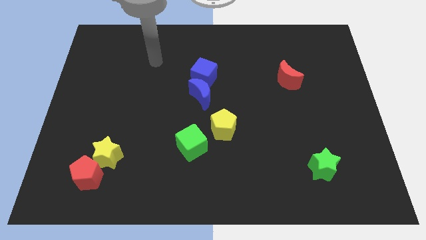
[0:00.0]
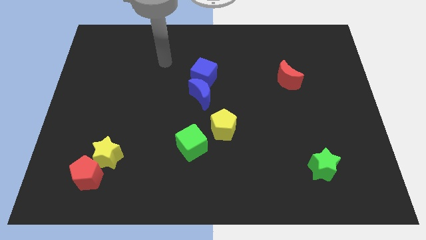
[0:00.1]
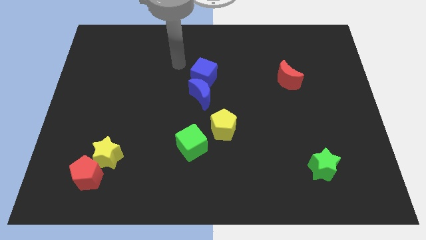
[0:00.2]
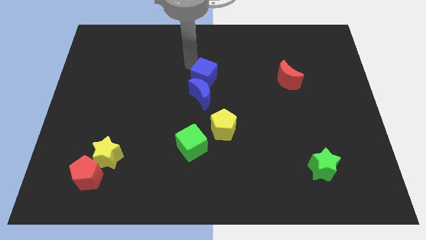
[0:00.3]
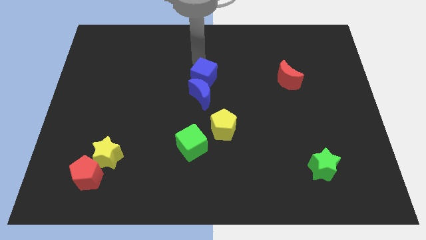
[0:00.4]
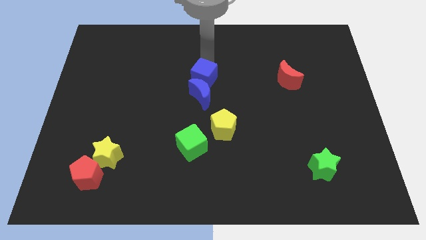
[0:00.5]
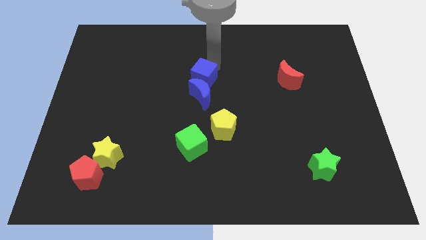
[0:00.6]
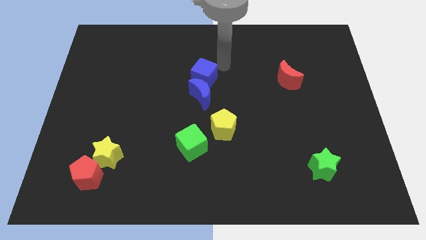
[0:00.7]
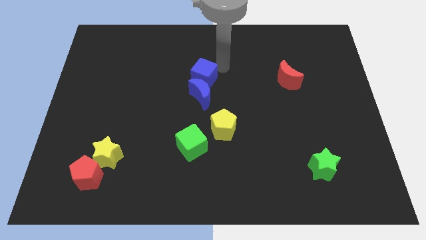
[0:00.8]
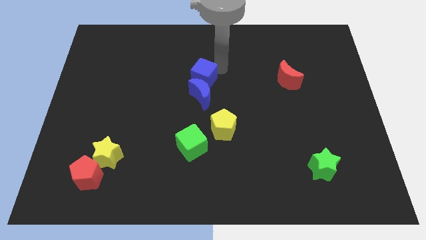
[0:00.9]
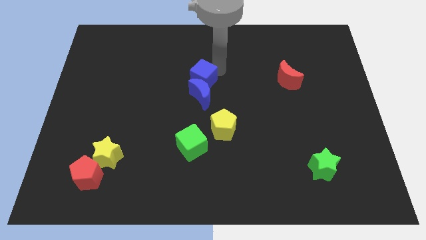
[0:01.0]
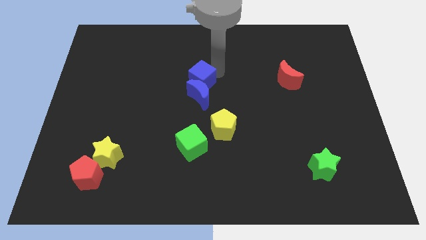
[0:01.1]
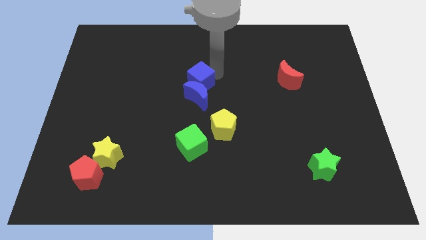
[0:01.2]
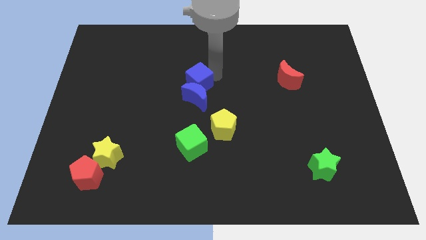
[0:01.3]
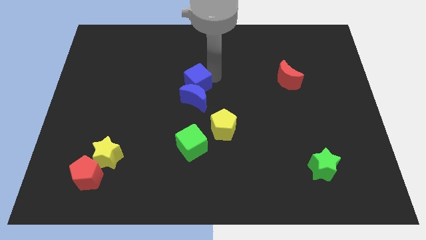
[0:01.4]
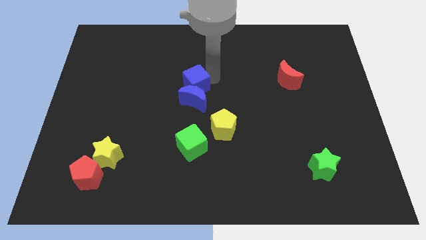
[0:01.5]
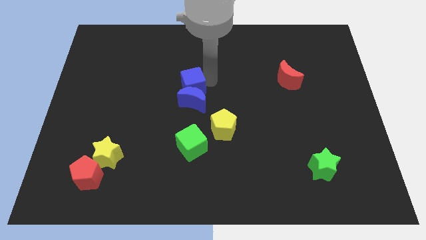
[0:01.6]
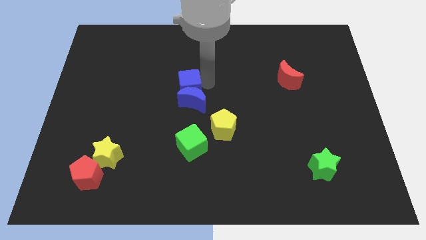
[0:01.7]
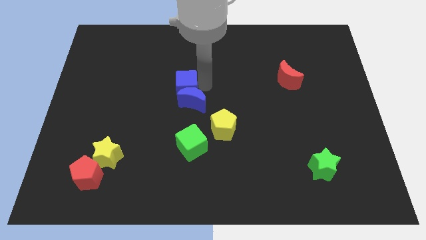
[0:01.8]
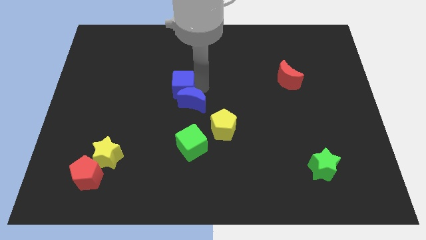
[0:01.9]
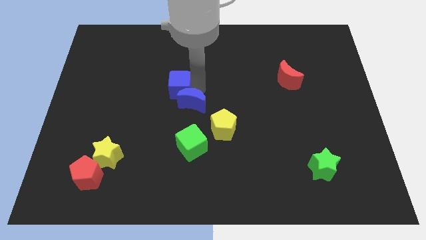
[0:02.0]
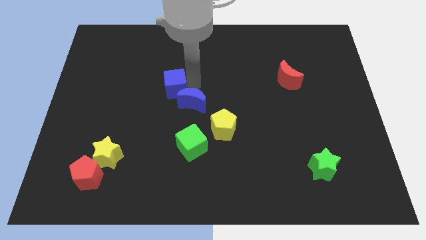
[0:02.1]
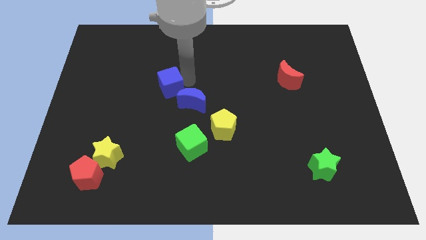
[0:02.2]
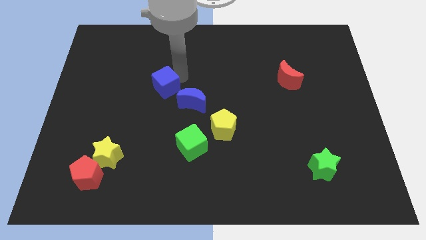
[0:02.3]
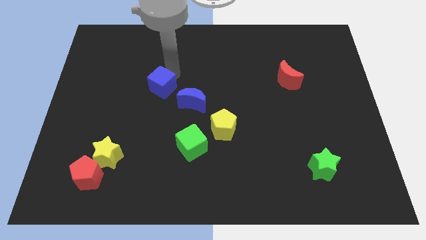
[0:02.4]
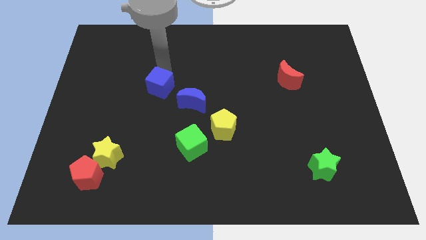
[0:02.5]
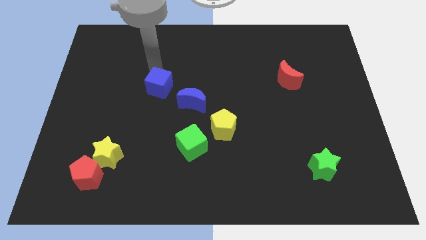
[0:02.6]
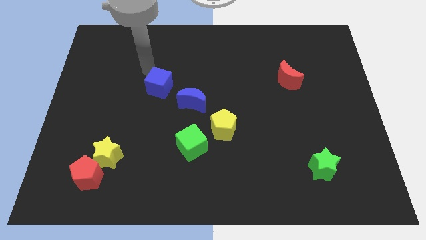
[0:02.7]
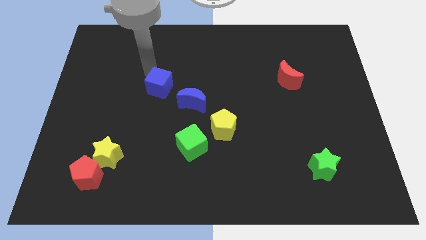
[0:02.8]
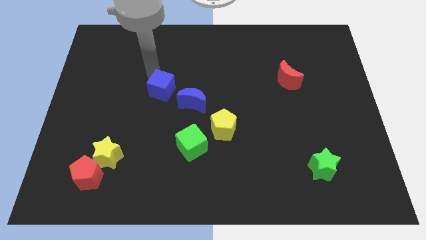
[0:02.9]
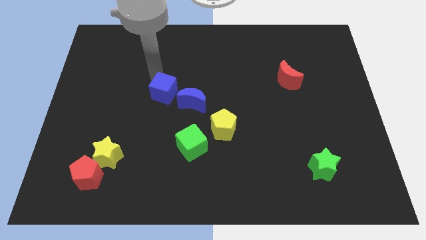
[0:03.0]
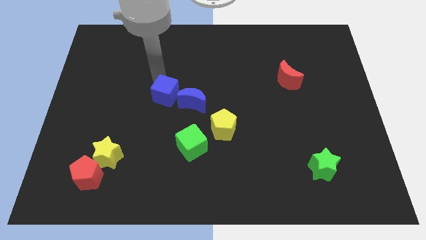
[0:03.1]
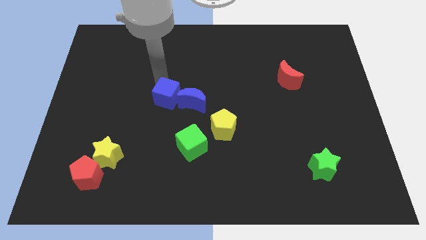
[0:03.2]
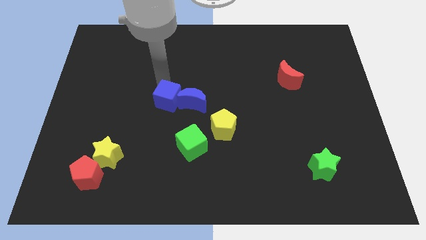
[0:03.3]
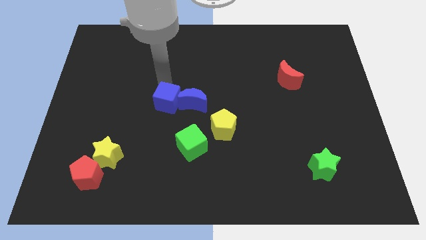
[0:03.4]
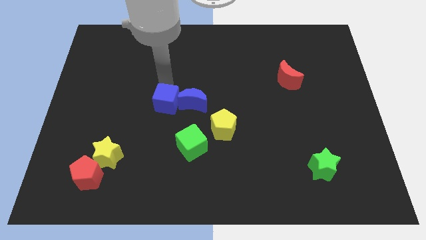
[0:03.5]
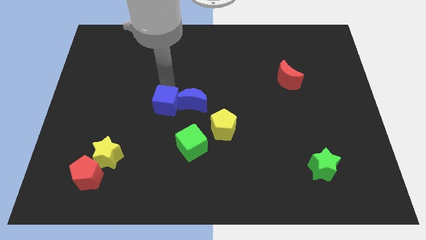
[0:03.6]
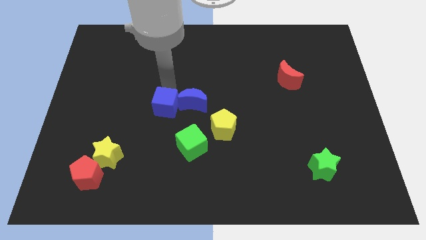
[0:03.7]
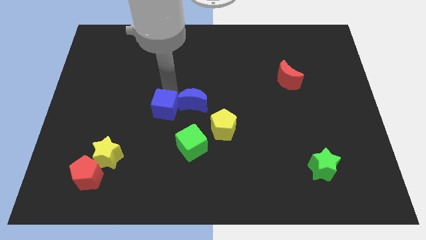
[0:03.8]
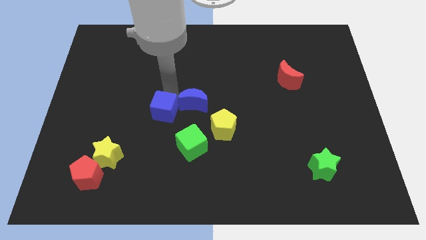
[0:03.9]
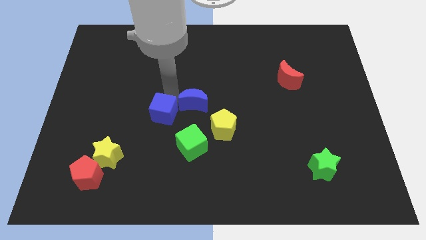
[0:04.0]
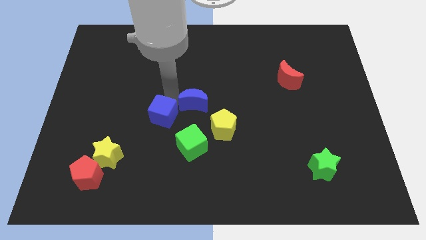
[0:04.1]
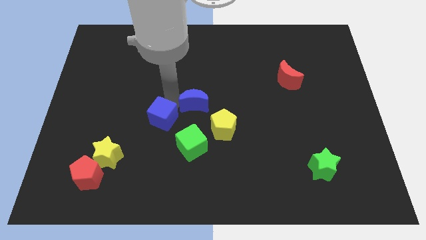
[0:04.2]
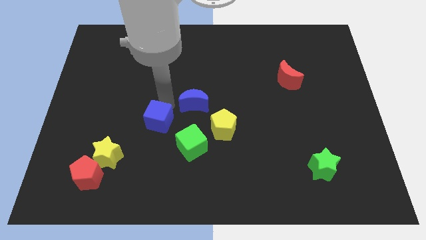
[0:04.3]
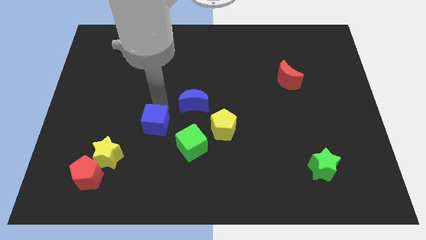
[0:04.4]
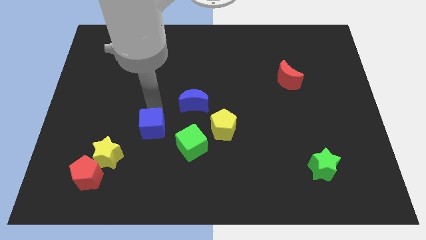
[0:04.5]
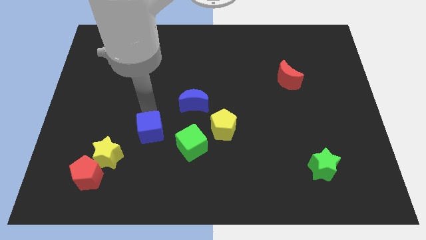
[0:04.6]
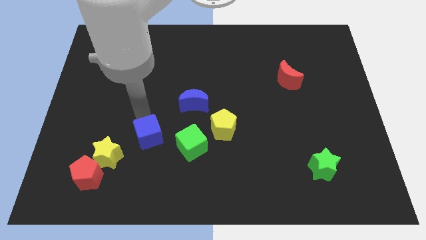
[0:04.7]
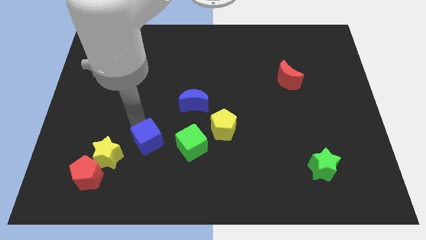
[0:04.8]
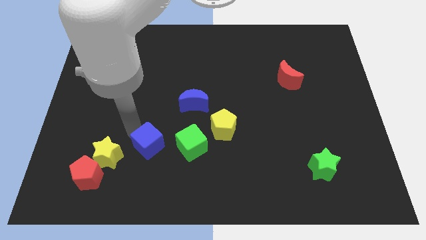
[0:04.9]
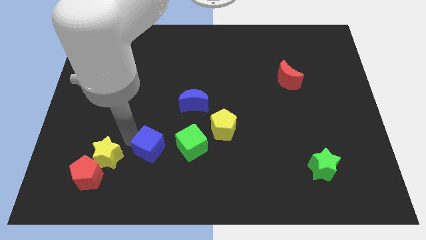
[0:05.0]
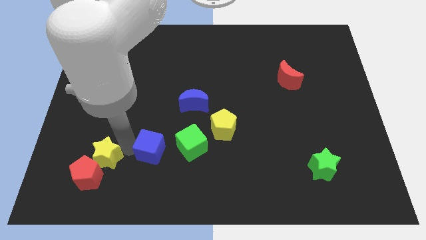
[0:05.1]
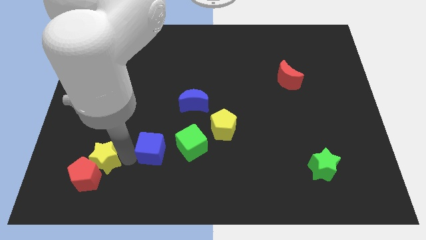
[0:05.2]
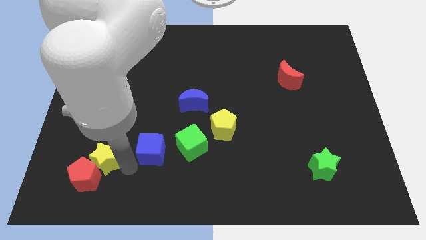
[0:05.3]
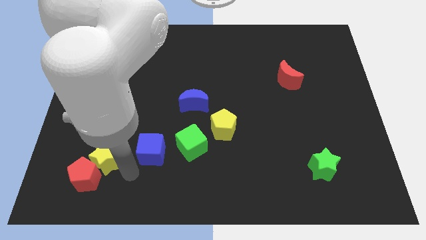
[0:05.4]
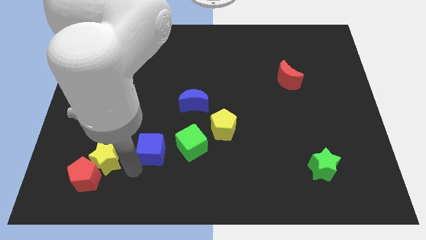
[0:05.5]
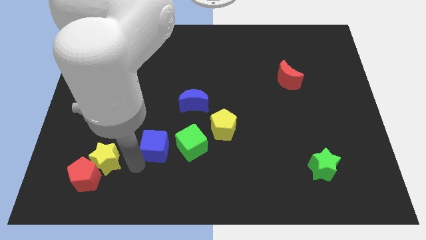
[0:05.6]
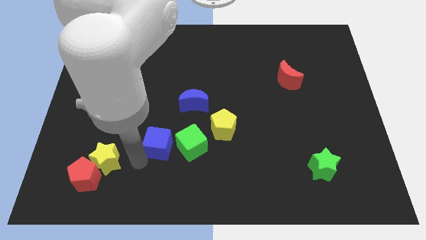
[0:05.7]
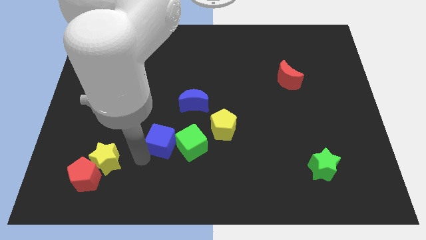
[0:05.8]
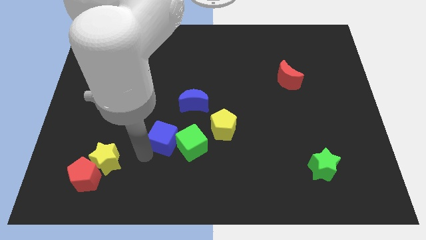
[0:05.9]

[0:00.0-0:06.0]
slide the blue cube close to the green cube

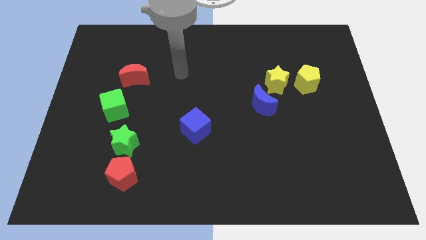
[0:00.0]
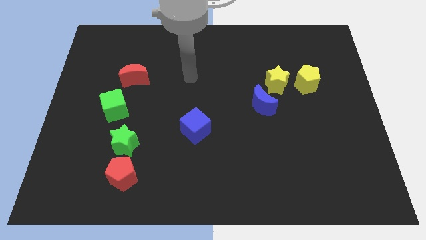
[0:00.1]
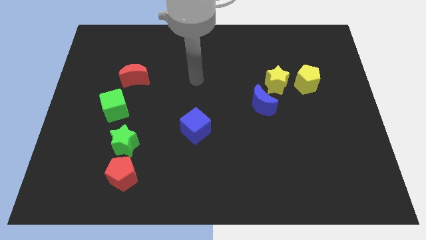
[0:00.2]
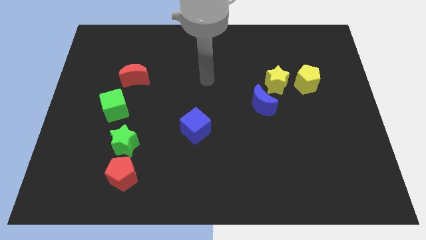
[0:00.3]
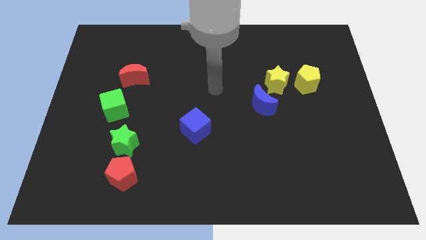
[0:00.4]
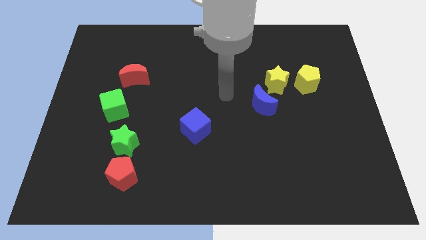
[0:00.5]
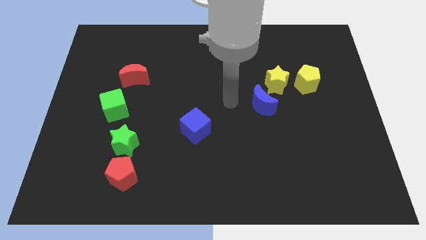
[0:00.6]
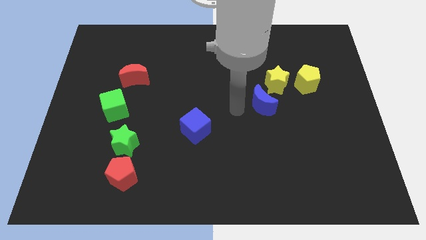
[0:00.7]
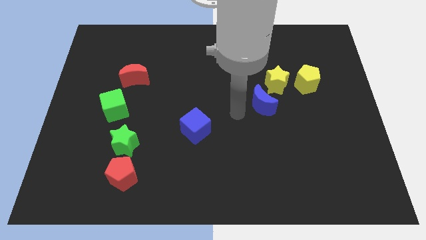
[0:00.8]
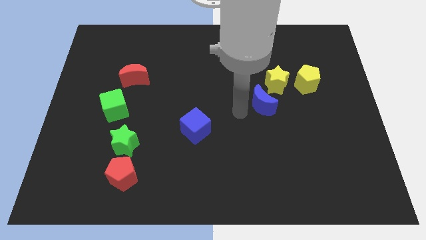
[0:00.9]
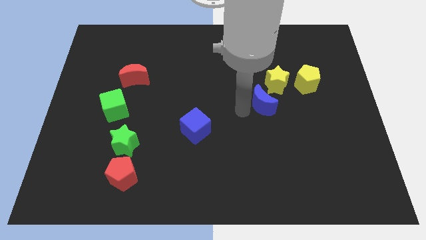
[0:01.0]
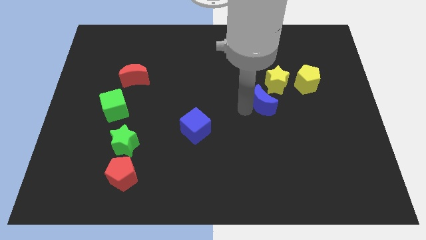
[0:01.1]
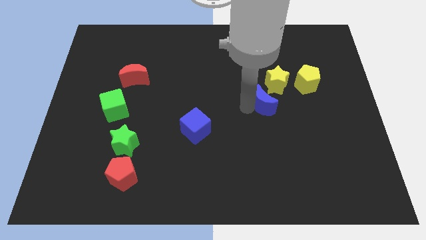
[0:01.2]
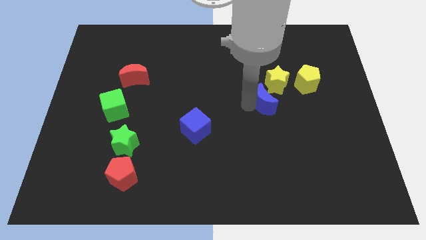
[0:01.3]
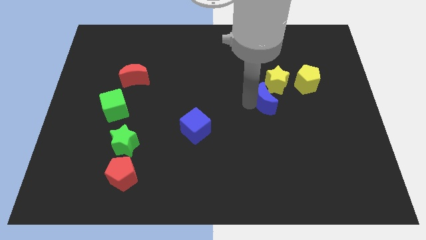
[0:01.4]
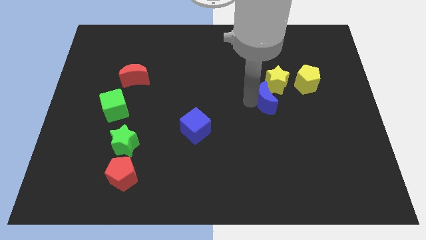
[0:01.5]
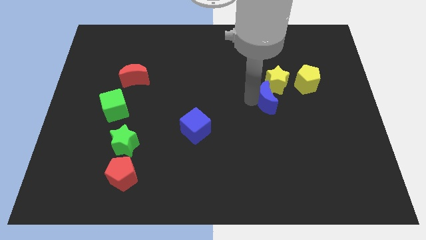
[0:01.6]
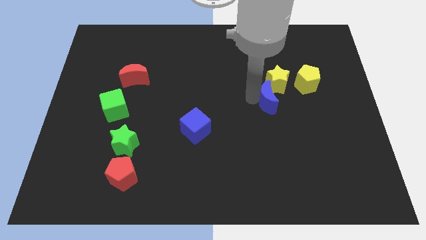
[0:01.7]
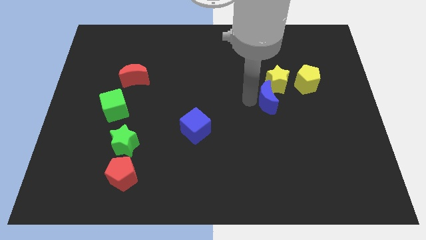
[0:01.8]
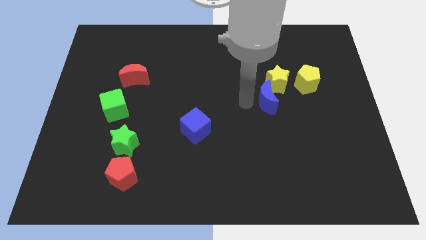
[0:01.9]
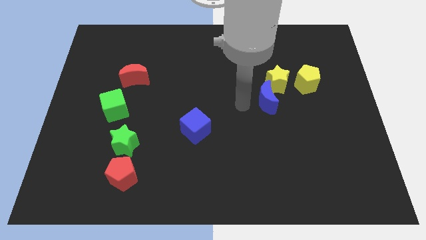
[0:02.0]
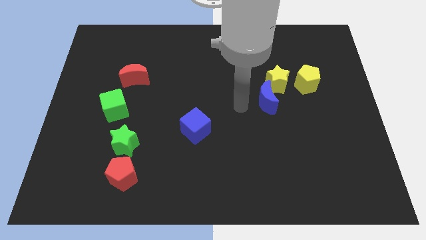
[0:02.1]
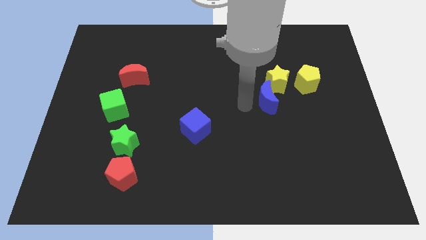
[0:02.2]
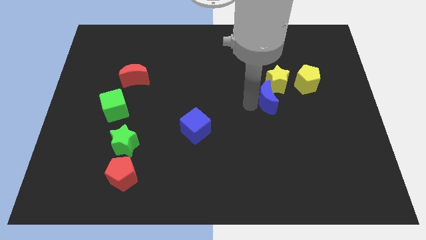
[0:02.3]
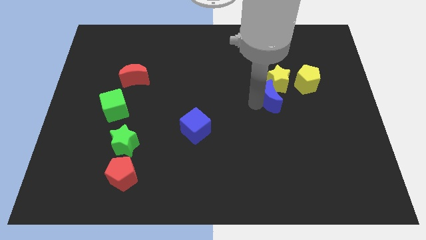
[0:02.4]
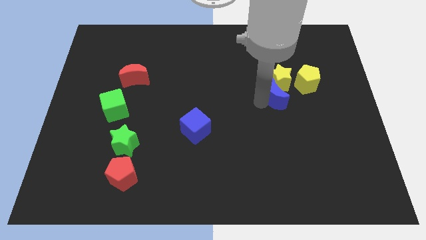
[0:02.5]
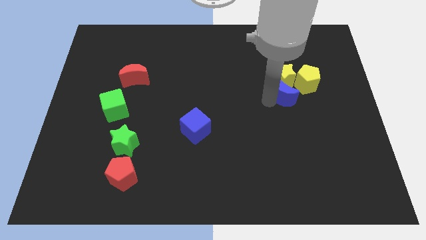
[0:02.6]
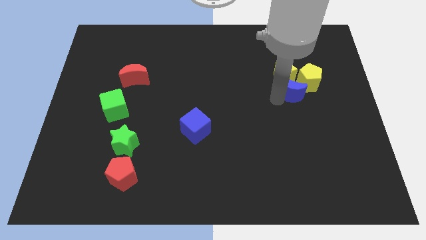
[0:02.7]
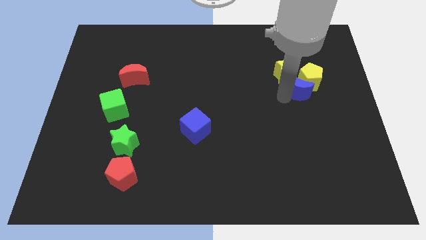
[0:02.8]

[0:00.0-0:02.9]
move the blue moon next to the yellow pentagon
